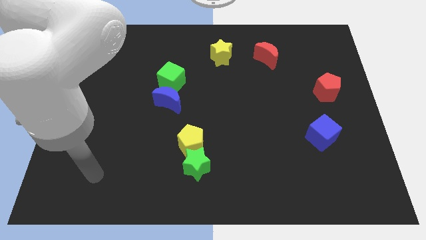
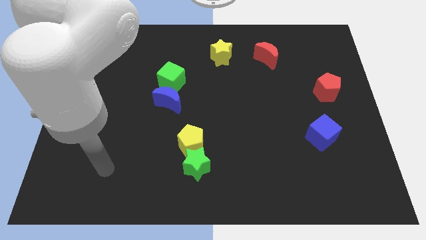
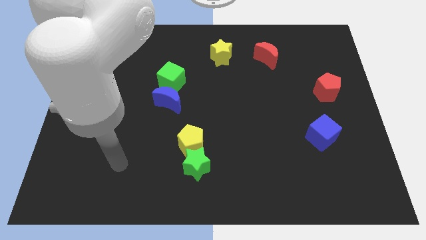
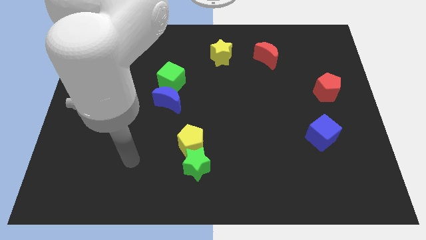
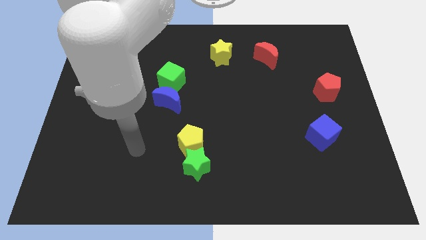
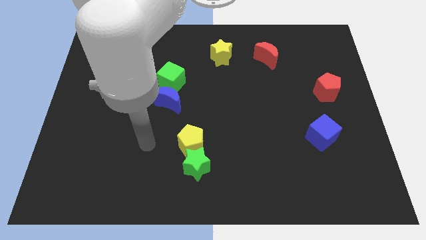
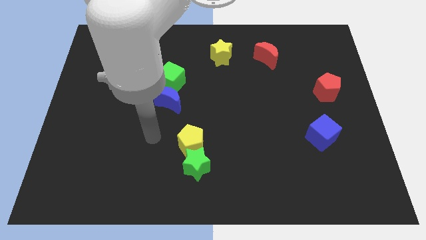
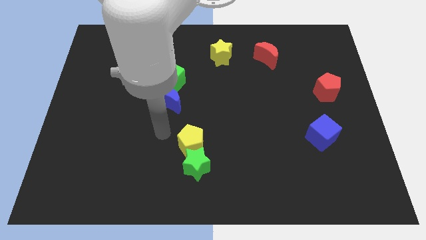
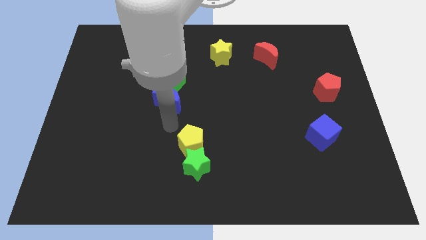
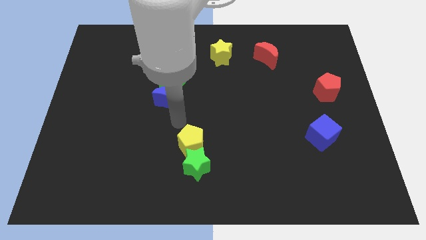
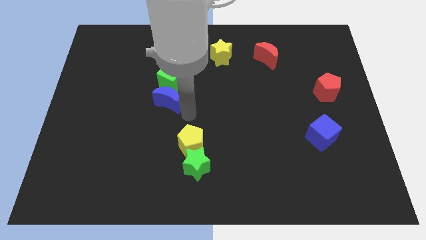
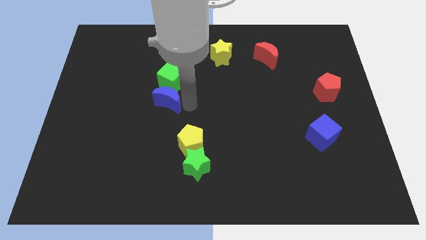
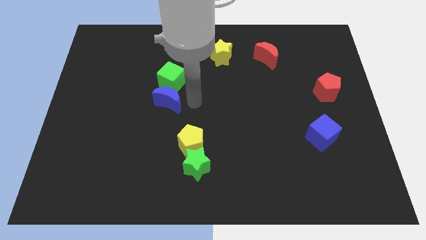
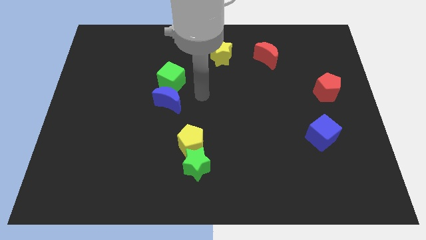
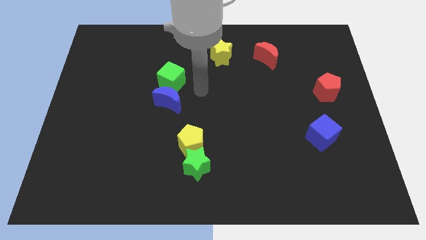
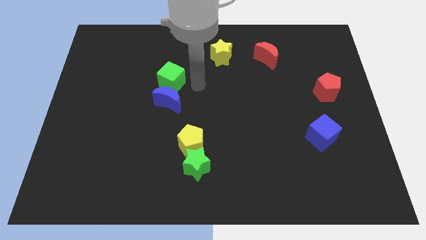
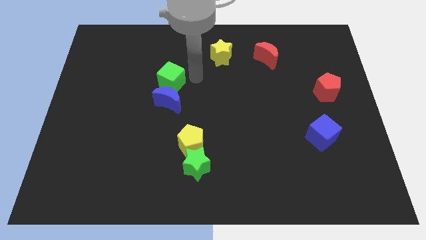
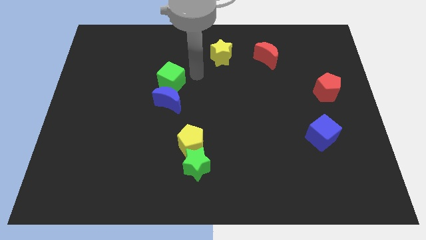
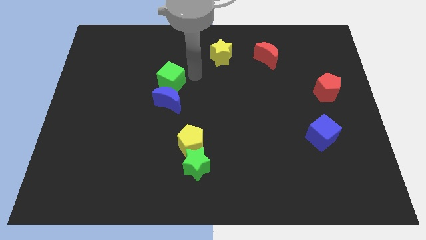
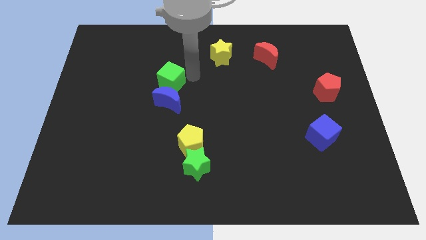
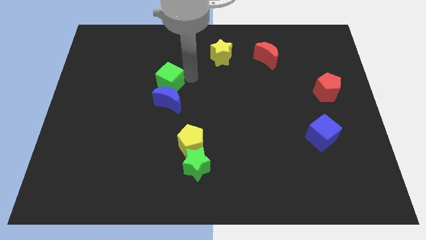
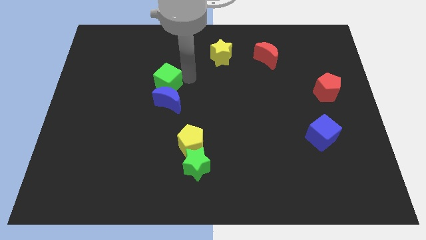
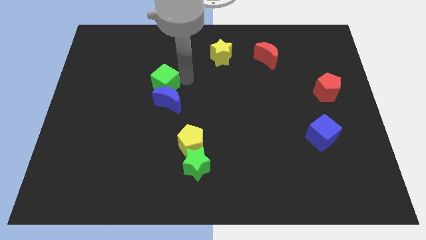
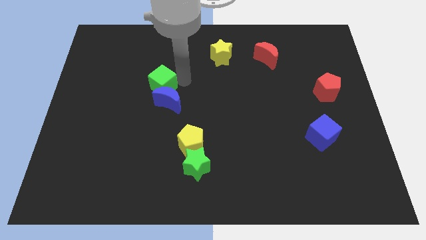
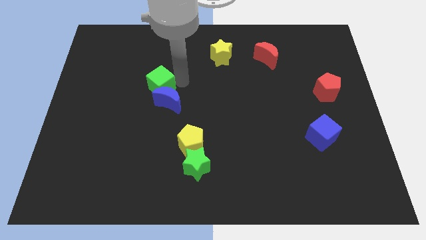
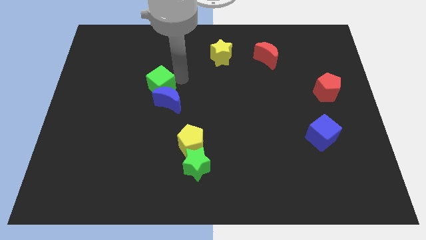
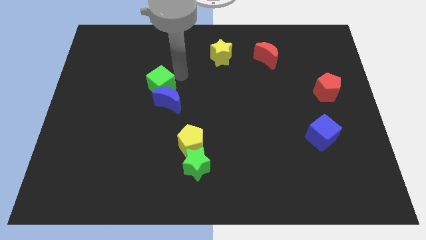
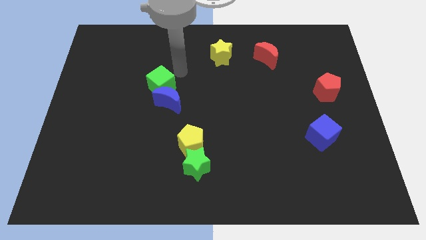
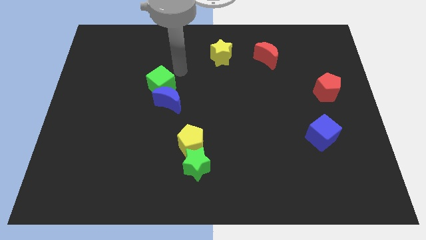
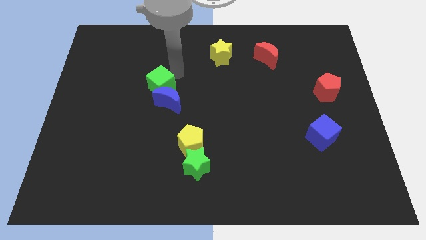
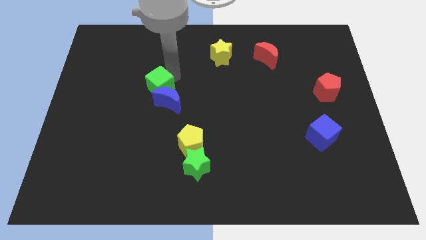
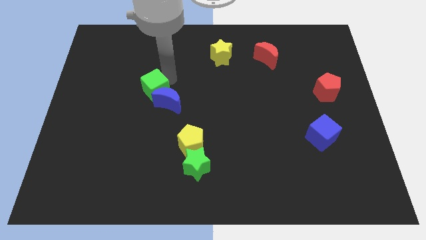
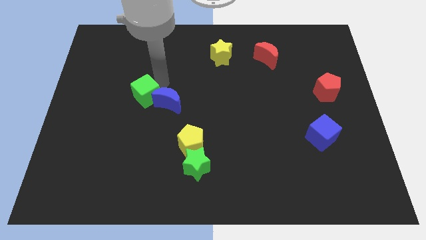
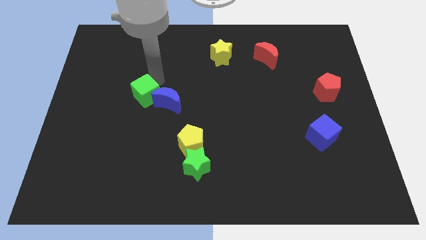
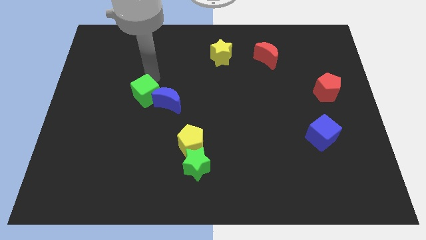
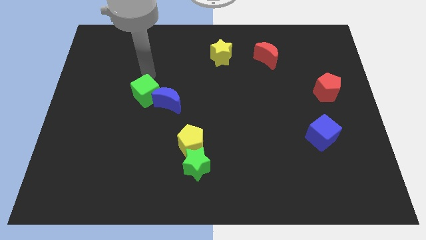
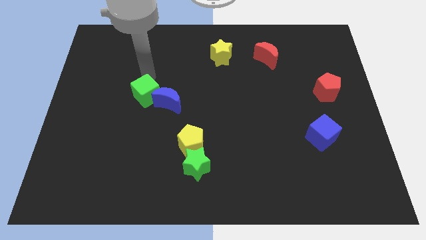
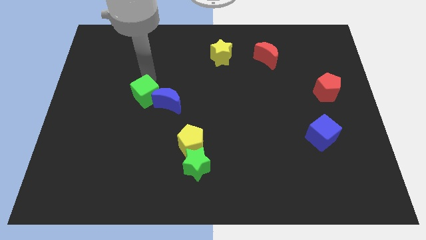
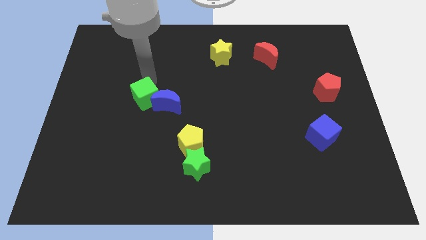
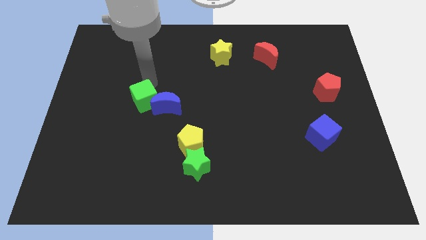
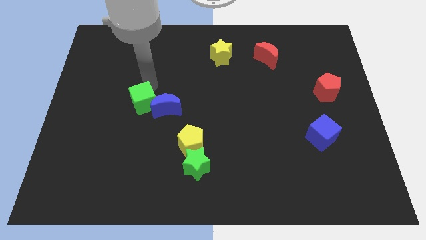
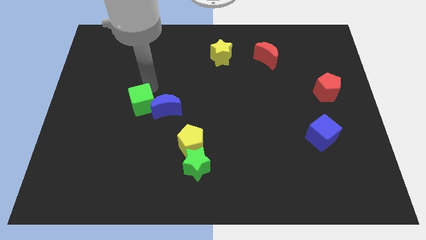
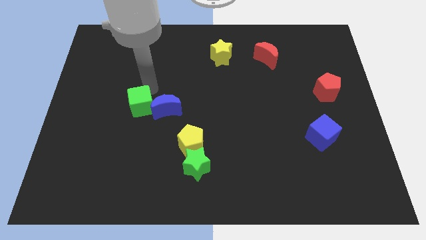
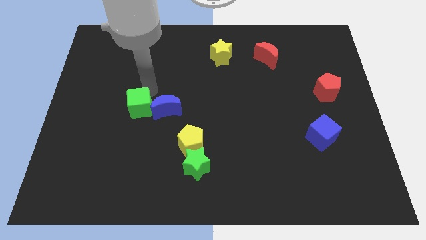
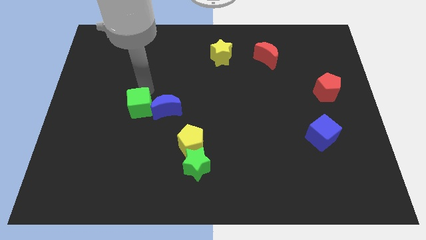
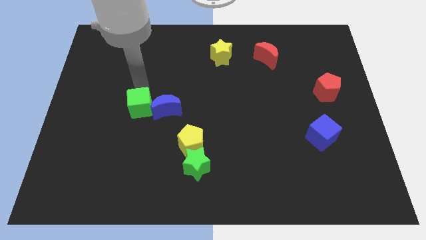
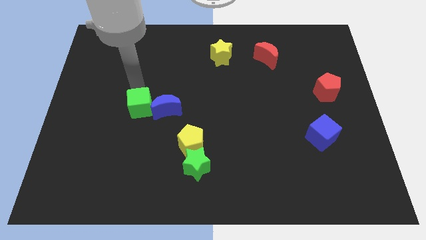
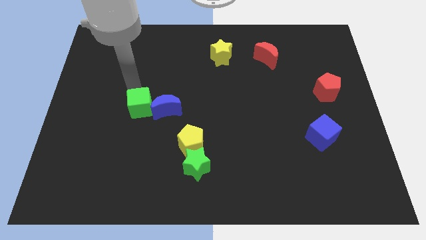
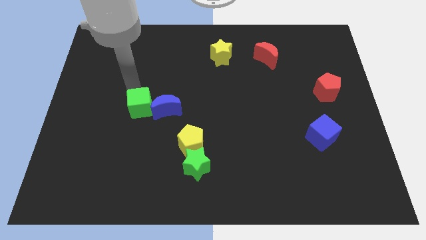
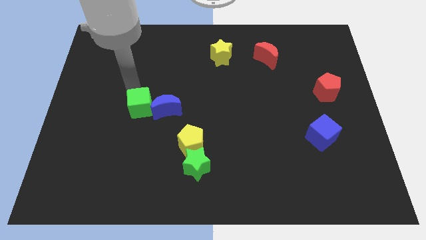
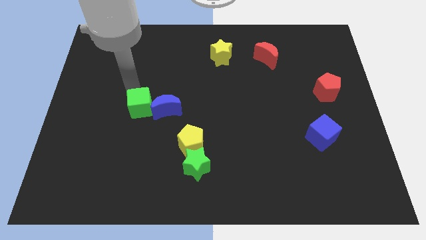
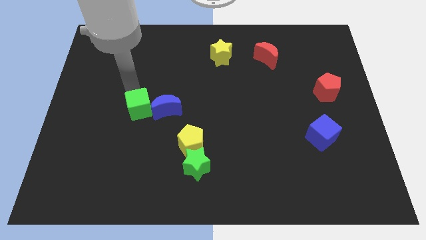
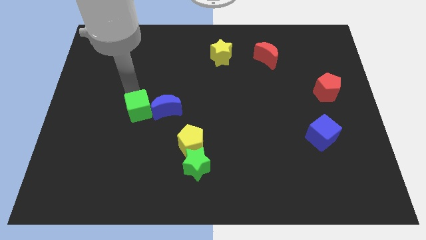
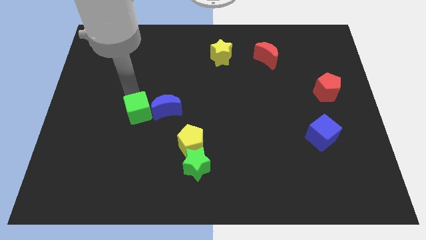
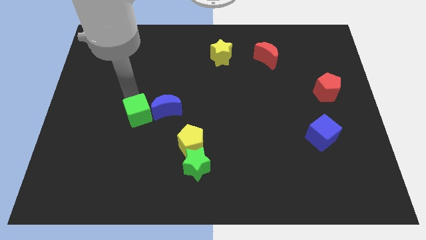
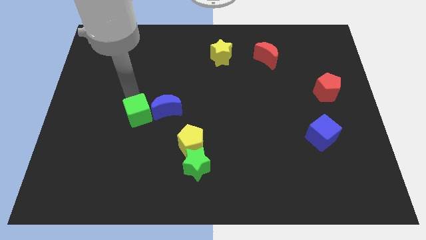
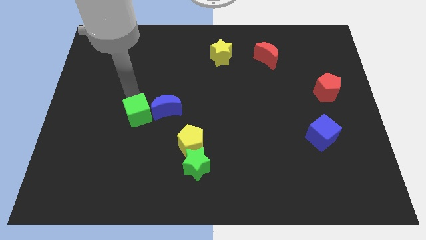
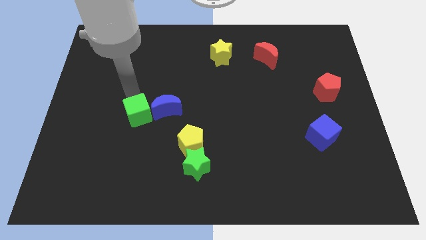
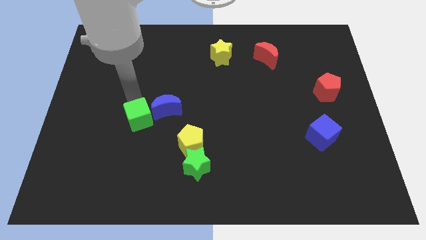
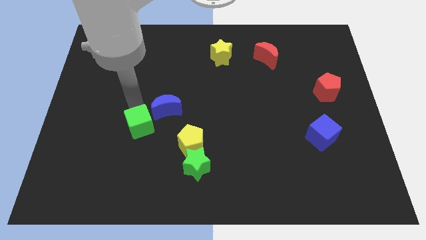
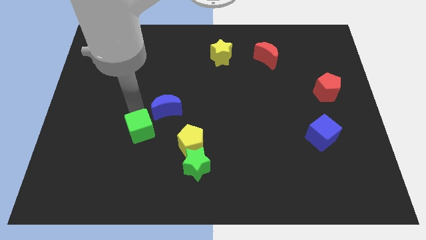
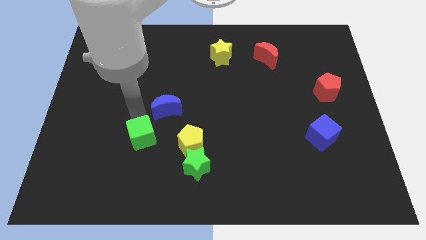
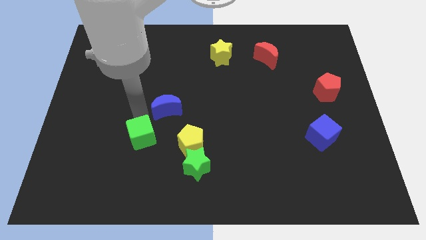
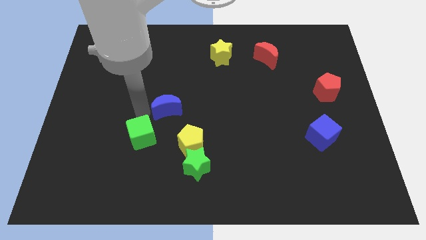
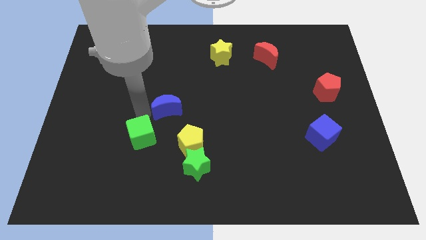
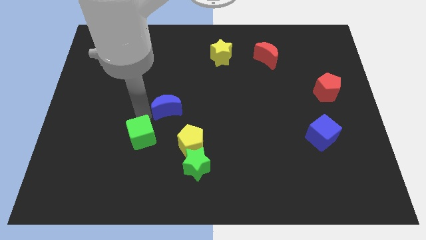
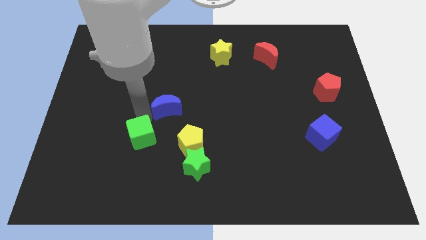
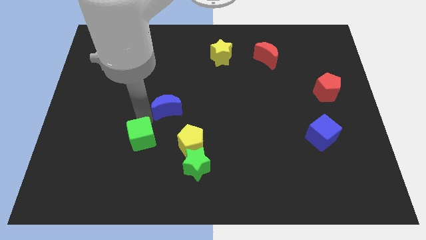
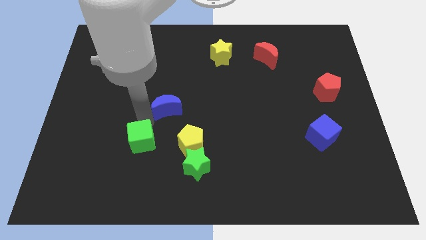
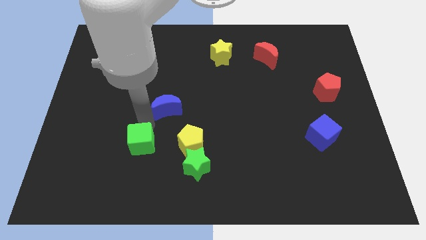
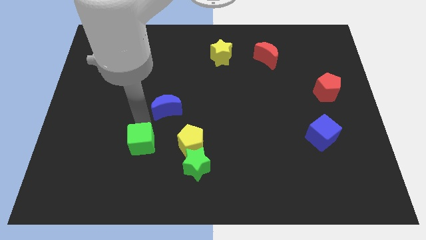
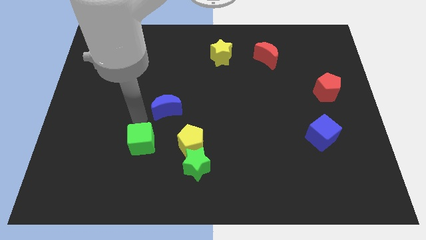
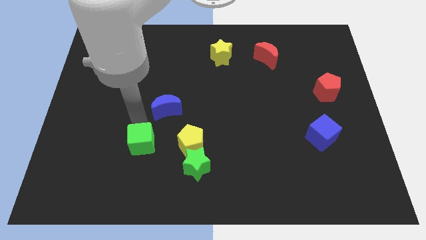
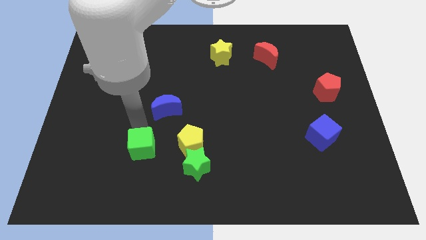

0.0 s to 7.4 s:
move the green cube just left of the green star
